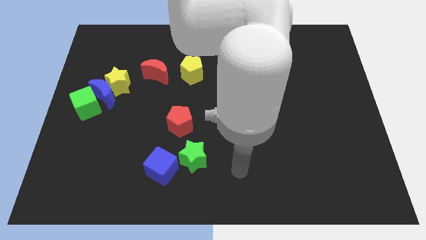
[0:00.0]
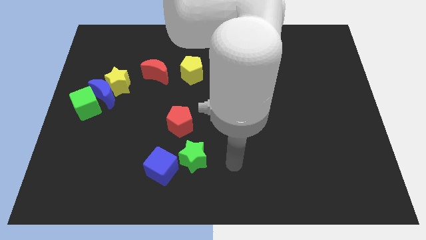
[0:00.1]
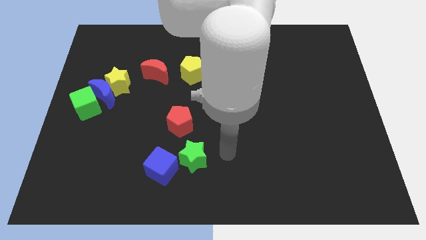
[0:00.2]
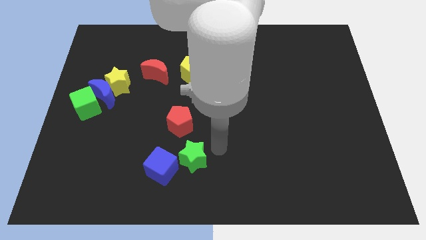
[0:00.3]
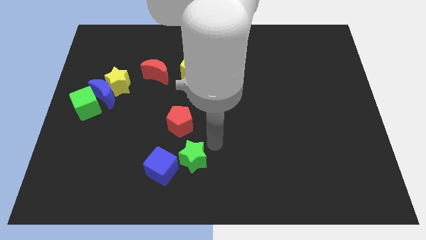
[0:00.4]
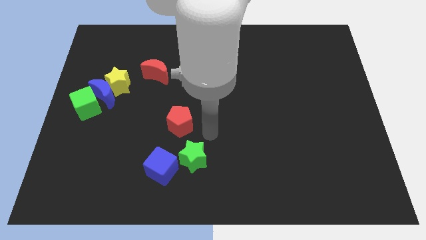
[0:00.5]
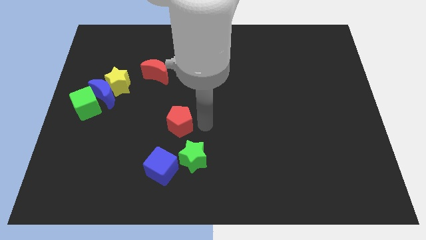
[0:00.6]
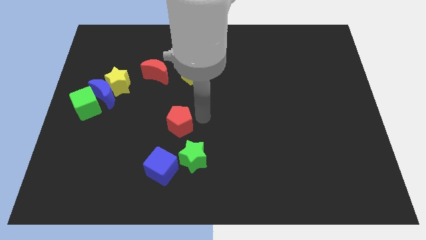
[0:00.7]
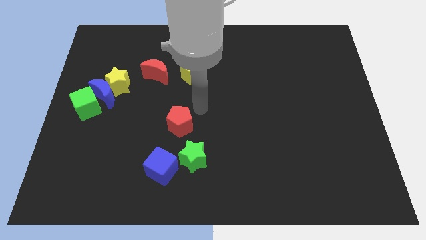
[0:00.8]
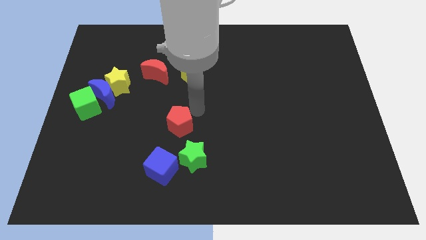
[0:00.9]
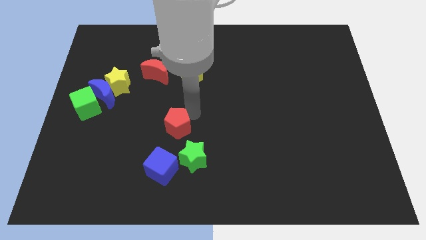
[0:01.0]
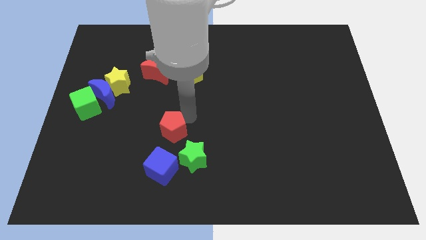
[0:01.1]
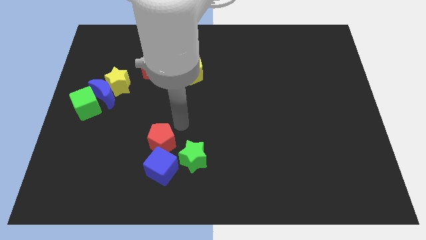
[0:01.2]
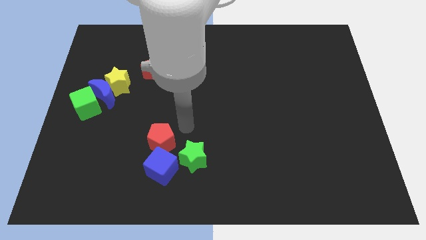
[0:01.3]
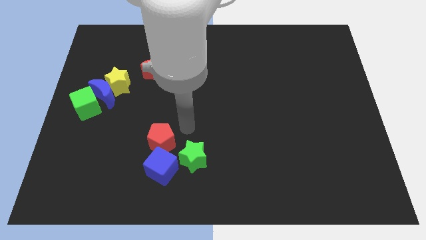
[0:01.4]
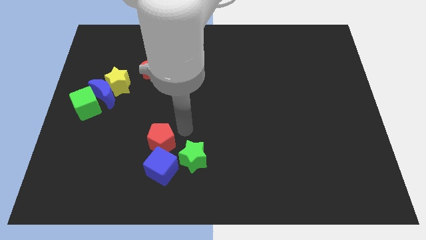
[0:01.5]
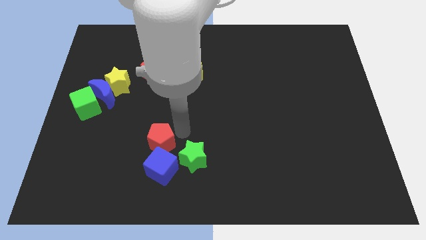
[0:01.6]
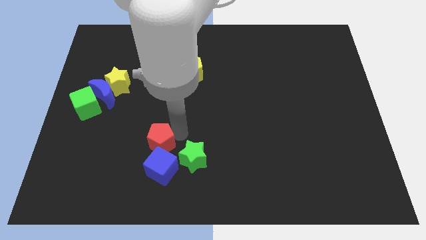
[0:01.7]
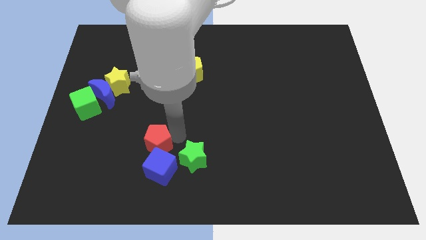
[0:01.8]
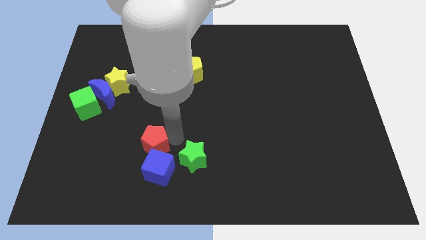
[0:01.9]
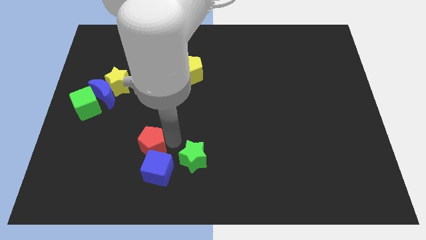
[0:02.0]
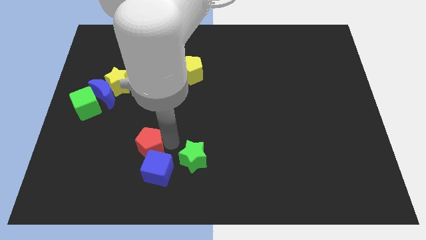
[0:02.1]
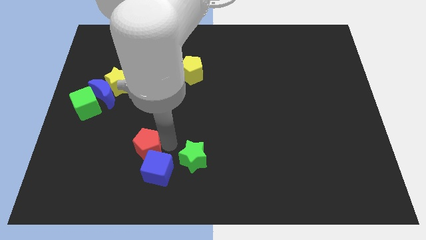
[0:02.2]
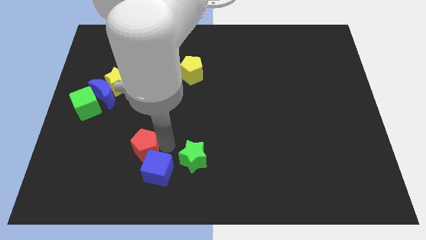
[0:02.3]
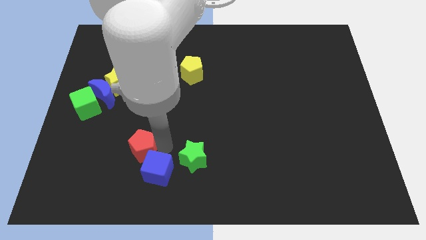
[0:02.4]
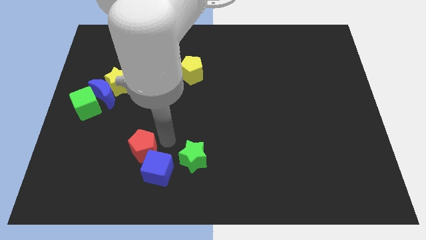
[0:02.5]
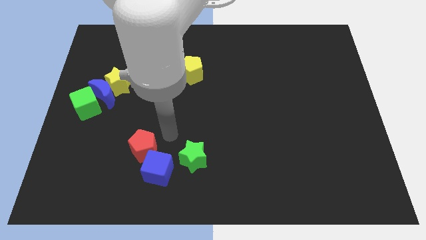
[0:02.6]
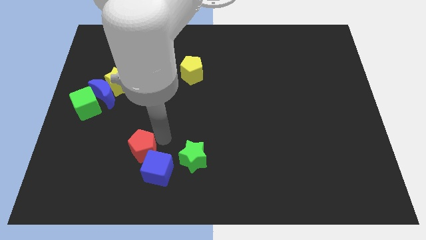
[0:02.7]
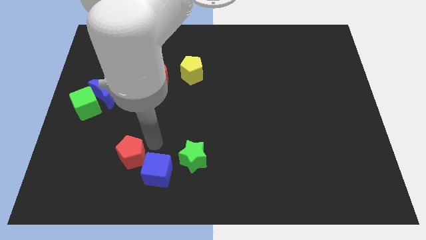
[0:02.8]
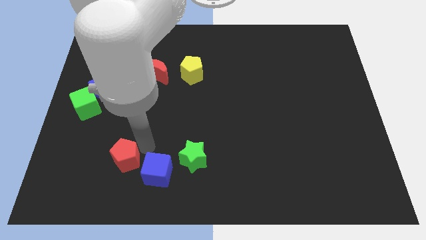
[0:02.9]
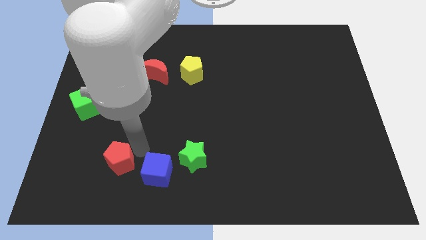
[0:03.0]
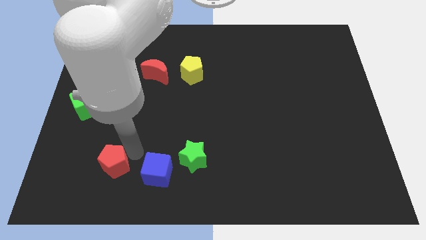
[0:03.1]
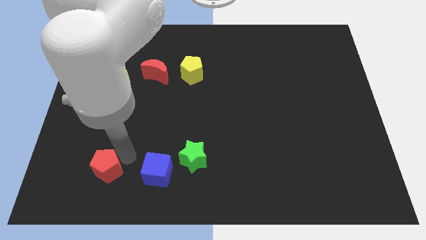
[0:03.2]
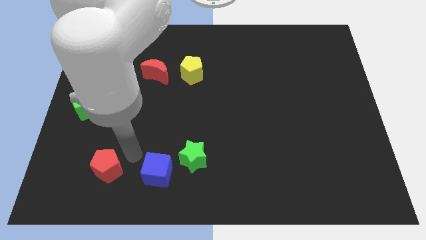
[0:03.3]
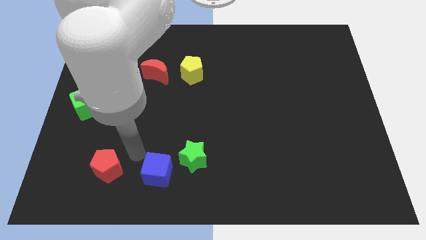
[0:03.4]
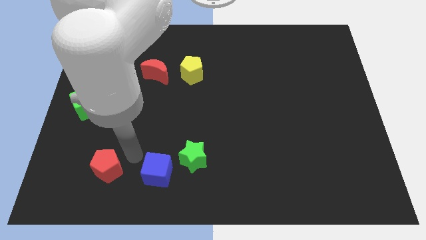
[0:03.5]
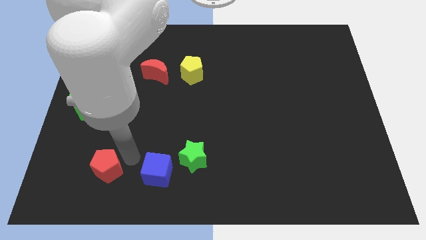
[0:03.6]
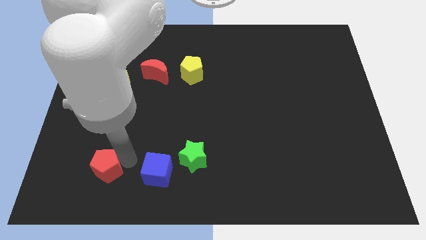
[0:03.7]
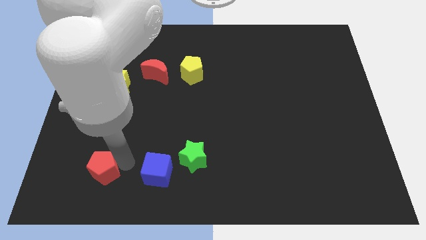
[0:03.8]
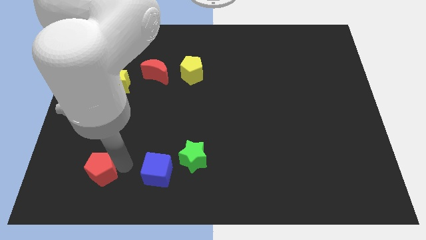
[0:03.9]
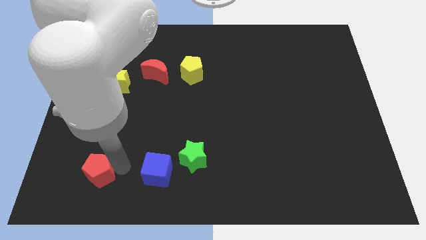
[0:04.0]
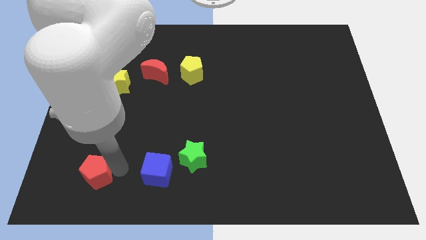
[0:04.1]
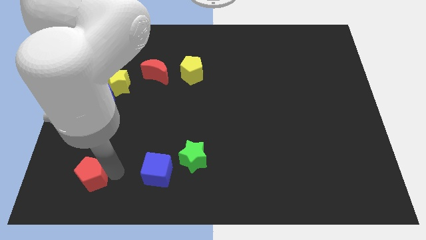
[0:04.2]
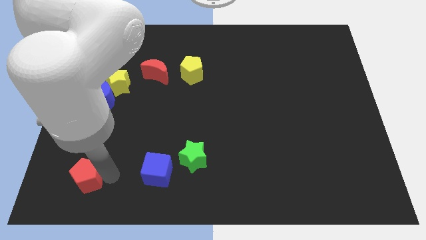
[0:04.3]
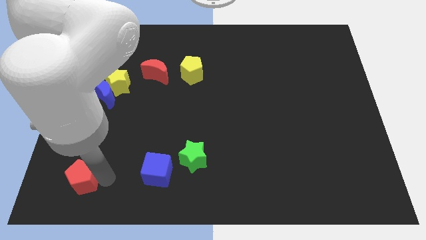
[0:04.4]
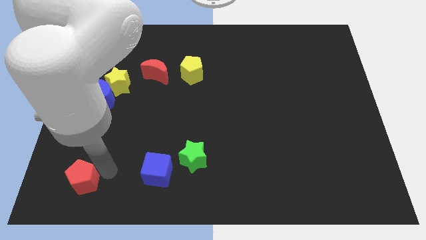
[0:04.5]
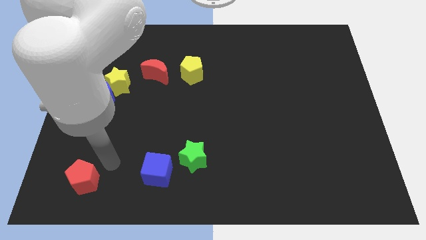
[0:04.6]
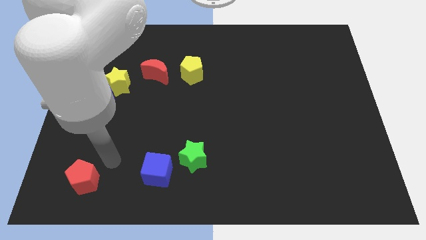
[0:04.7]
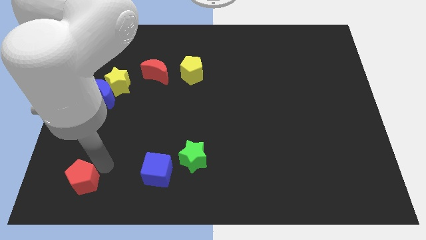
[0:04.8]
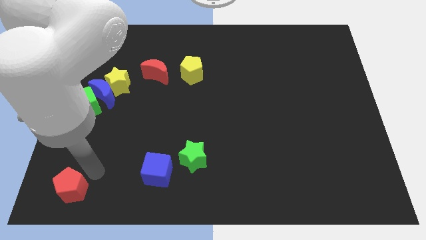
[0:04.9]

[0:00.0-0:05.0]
push the red pentagon to the bottom left

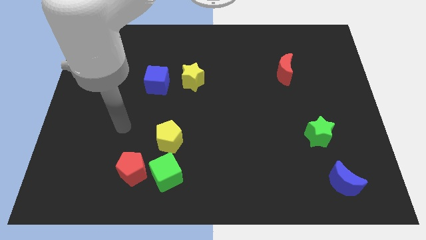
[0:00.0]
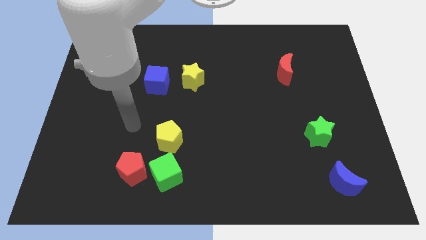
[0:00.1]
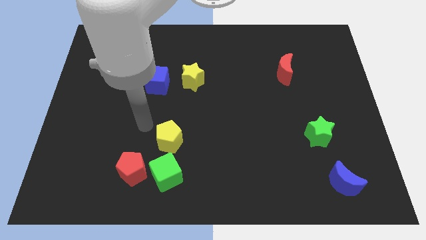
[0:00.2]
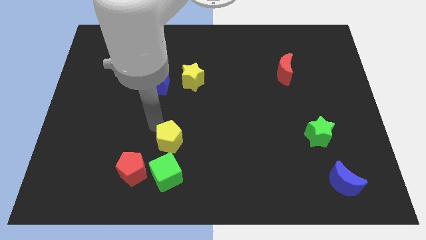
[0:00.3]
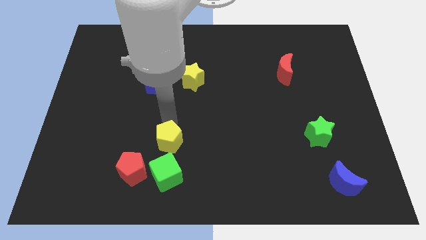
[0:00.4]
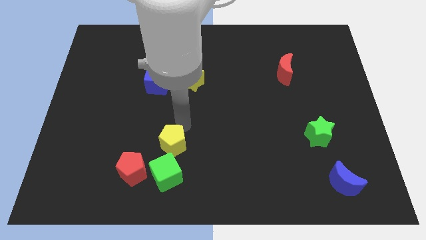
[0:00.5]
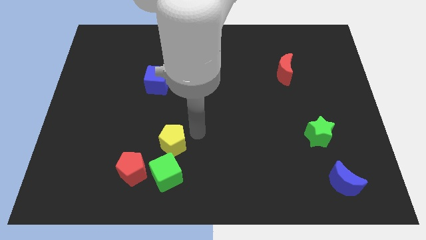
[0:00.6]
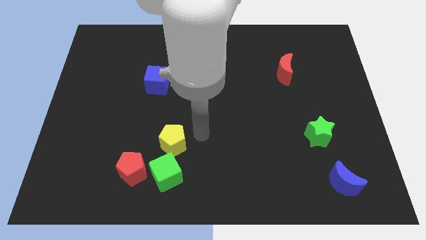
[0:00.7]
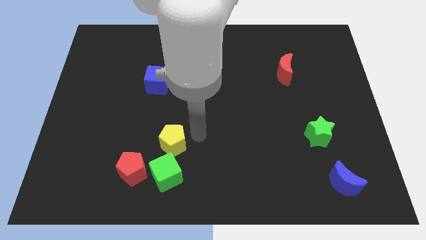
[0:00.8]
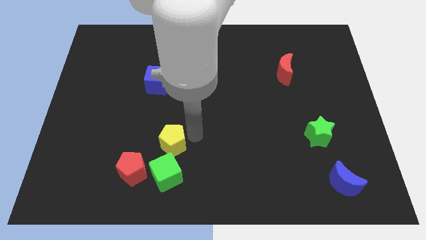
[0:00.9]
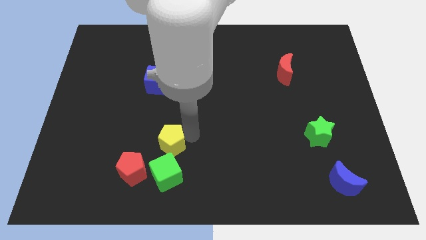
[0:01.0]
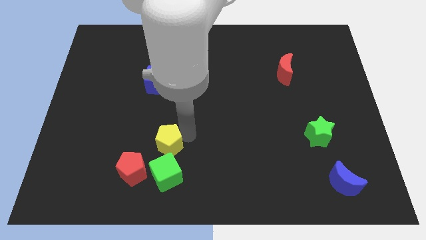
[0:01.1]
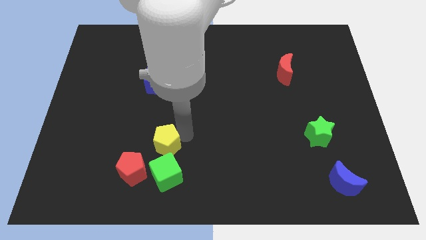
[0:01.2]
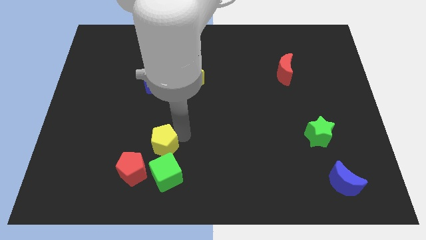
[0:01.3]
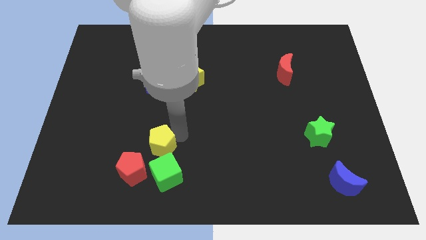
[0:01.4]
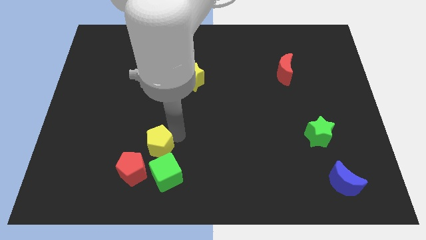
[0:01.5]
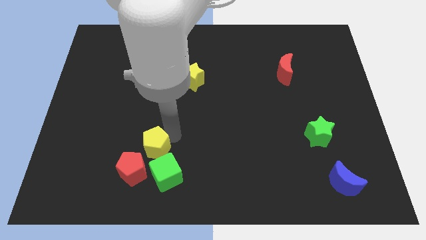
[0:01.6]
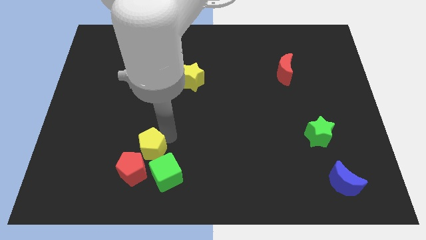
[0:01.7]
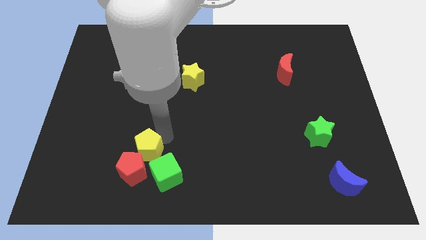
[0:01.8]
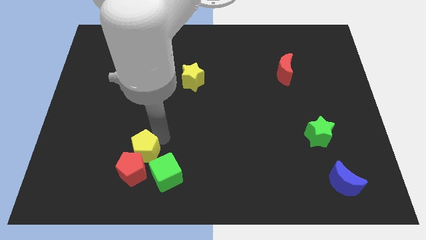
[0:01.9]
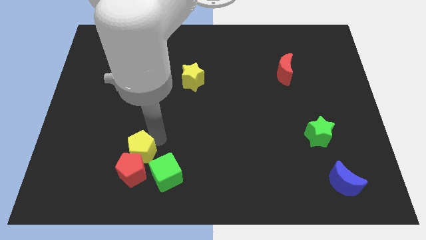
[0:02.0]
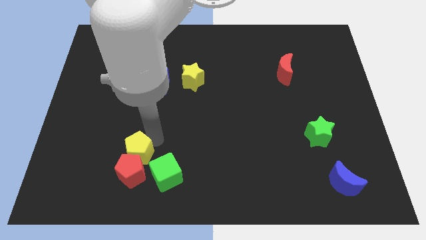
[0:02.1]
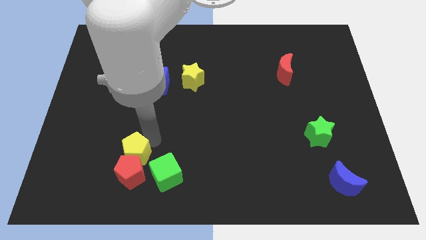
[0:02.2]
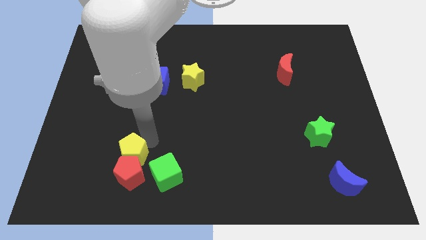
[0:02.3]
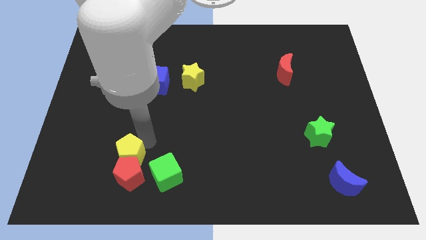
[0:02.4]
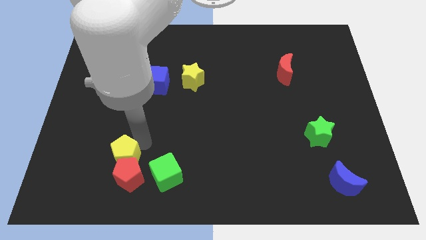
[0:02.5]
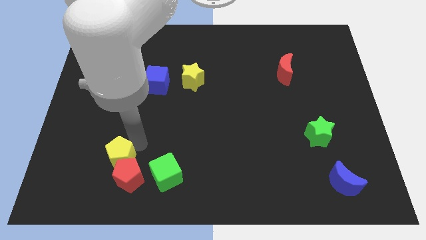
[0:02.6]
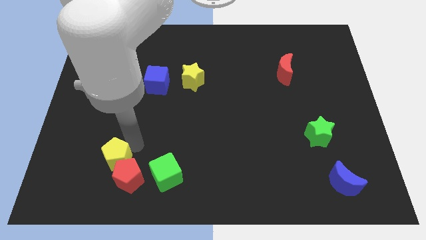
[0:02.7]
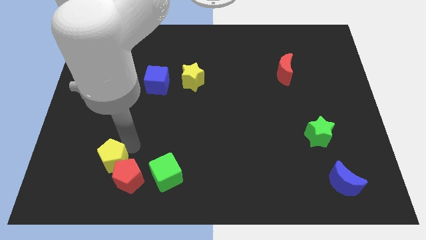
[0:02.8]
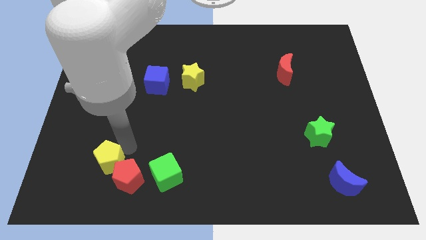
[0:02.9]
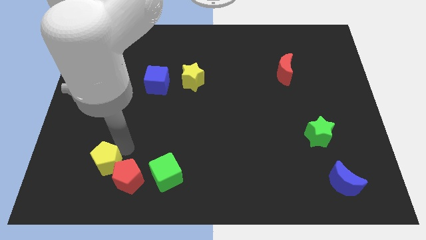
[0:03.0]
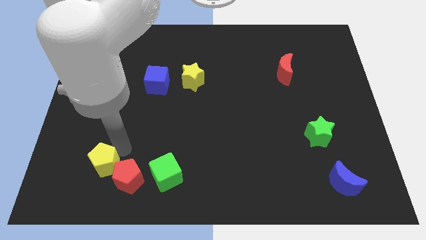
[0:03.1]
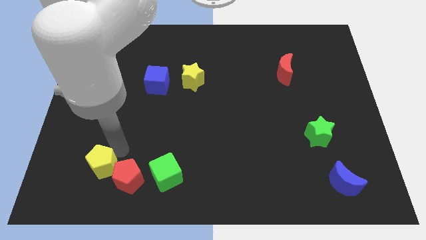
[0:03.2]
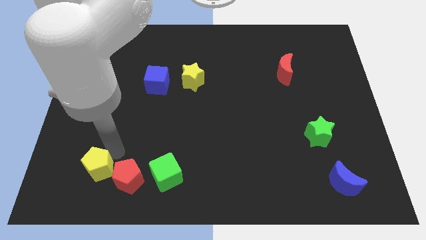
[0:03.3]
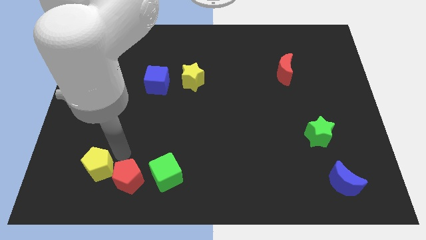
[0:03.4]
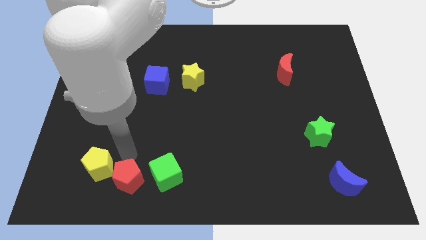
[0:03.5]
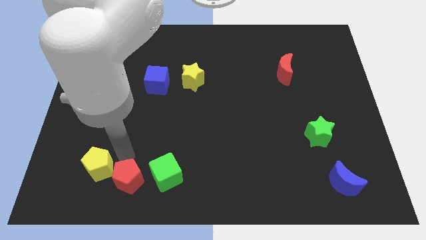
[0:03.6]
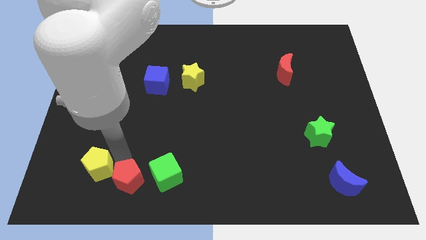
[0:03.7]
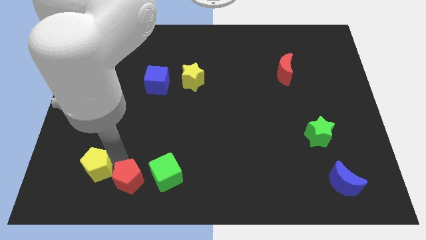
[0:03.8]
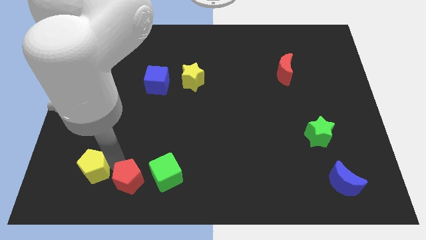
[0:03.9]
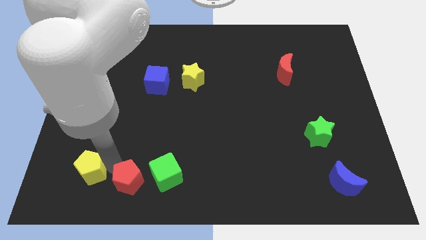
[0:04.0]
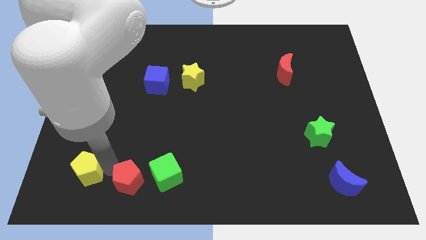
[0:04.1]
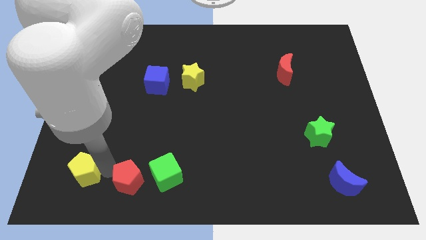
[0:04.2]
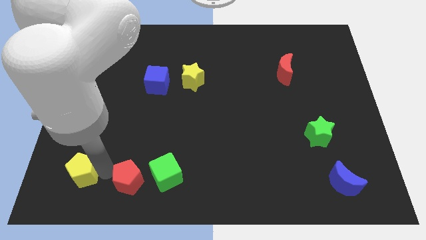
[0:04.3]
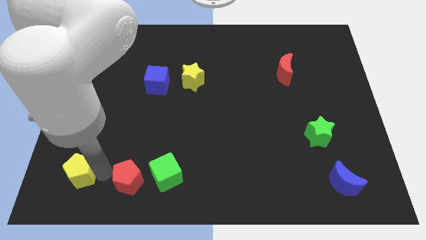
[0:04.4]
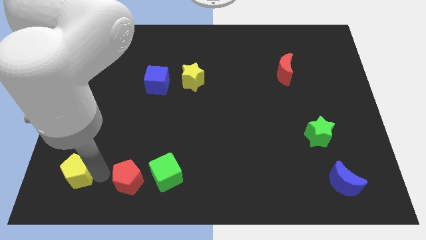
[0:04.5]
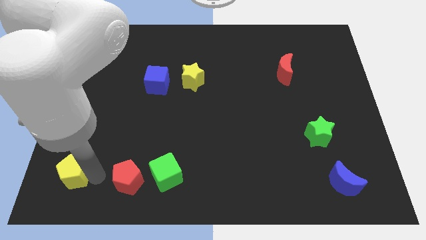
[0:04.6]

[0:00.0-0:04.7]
slide the yellow pentagon to the bottom left
